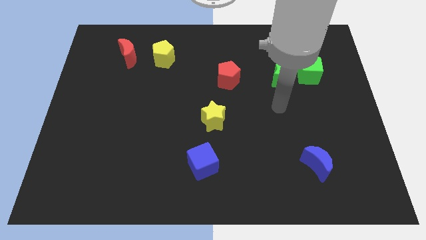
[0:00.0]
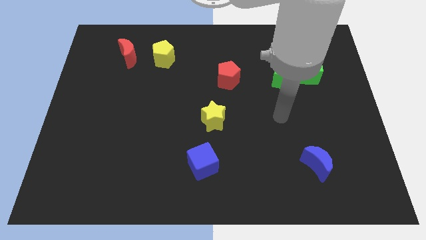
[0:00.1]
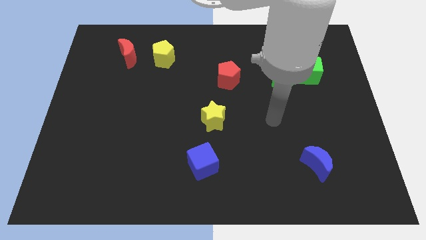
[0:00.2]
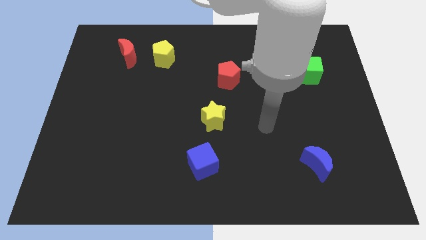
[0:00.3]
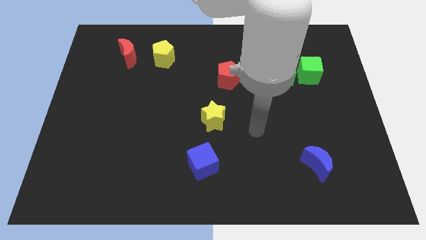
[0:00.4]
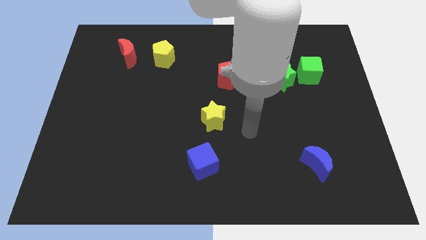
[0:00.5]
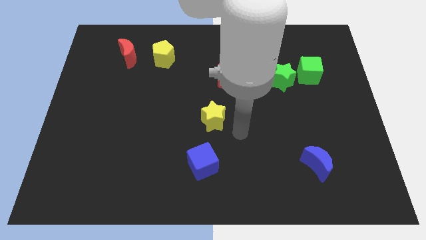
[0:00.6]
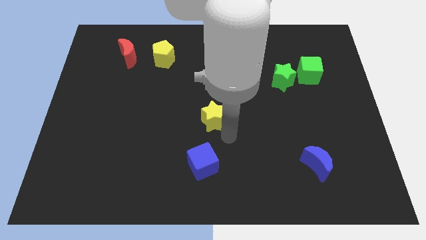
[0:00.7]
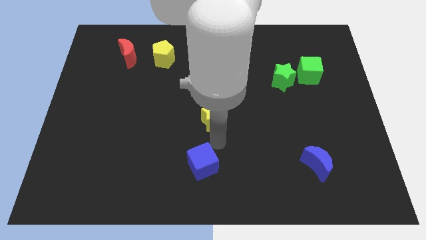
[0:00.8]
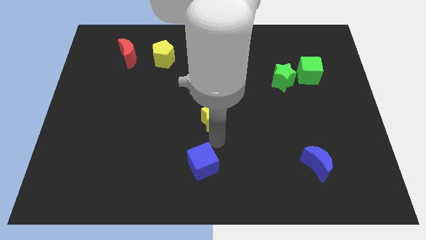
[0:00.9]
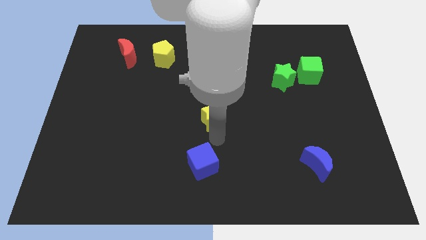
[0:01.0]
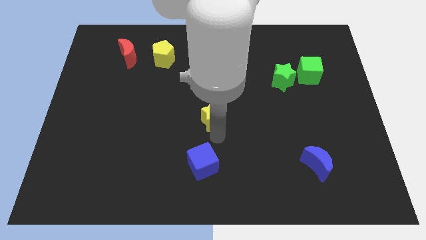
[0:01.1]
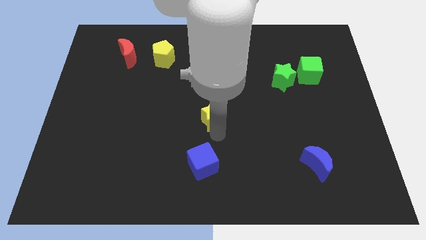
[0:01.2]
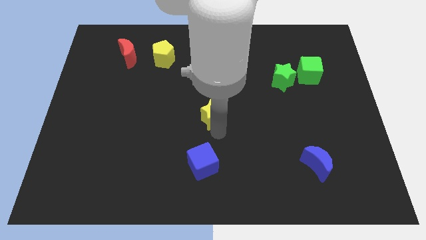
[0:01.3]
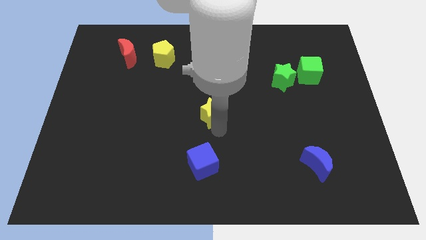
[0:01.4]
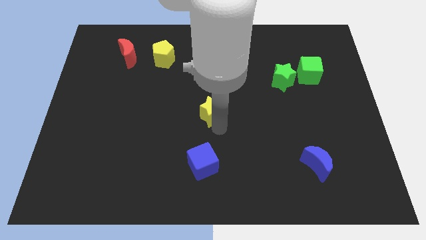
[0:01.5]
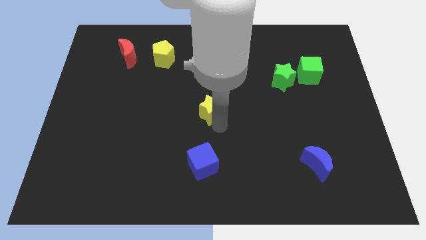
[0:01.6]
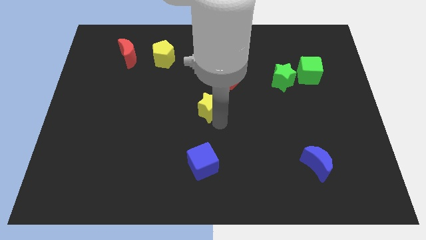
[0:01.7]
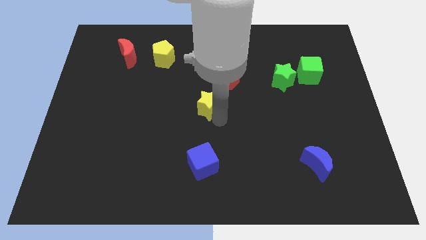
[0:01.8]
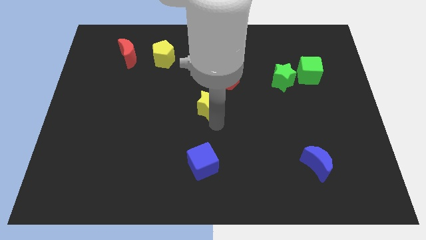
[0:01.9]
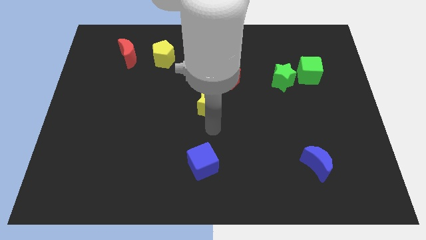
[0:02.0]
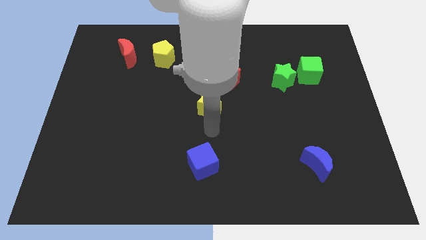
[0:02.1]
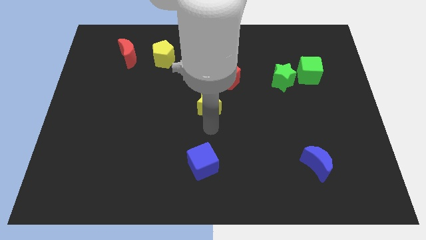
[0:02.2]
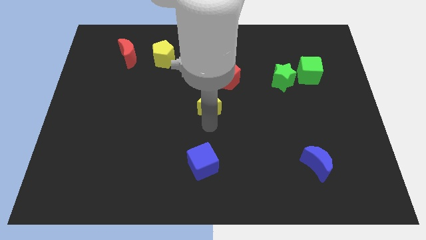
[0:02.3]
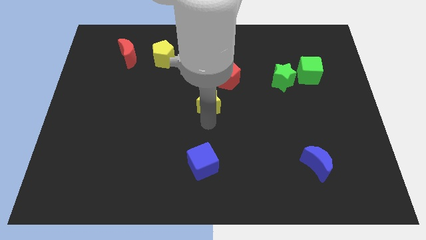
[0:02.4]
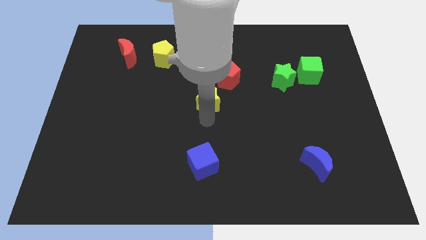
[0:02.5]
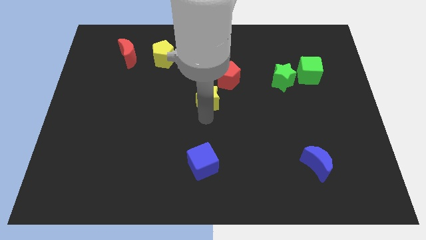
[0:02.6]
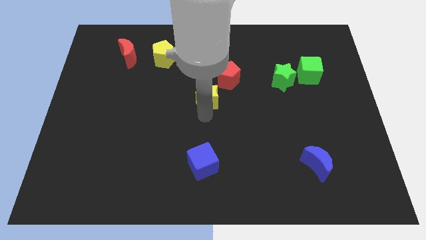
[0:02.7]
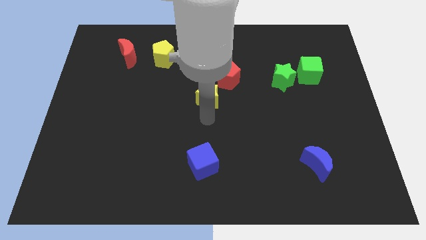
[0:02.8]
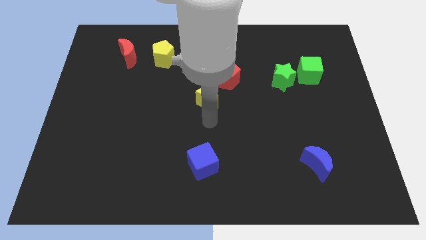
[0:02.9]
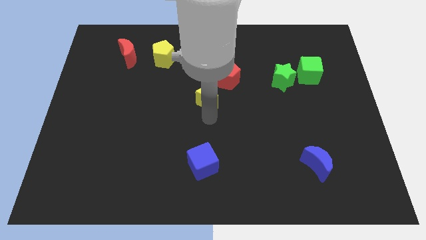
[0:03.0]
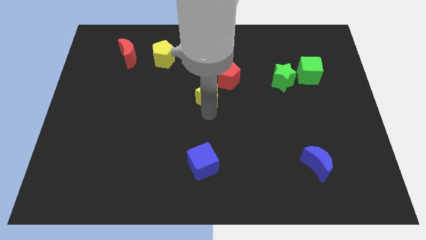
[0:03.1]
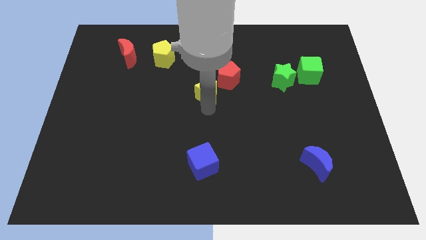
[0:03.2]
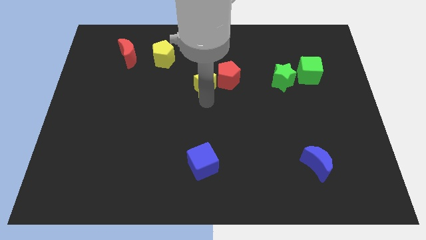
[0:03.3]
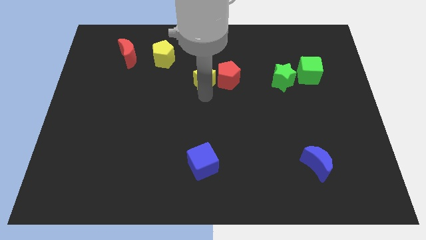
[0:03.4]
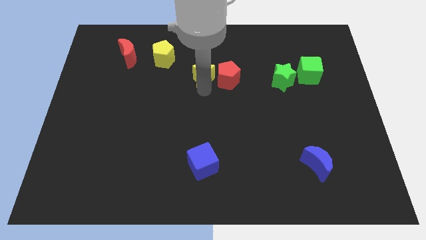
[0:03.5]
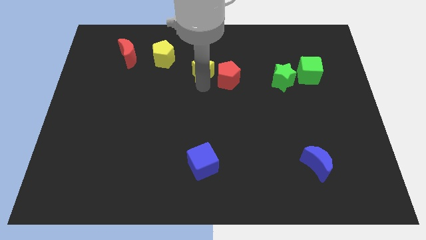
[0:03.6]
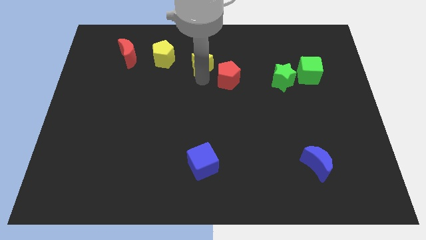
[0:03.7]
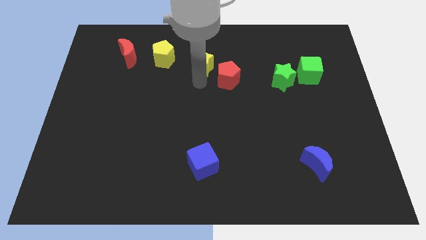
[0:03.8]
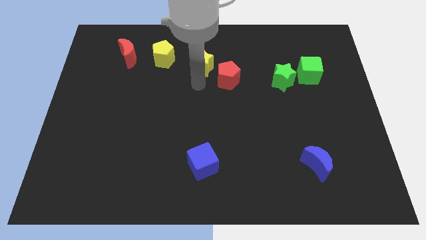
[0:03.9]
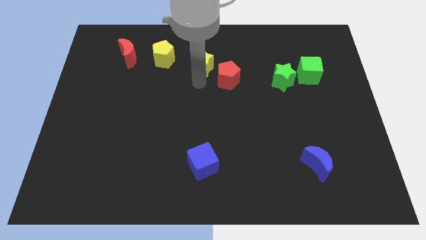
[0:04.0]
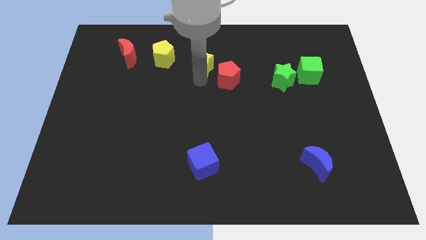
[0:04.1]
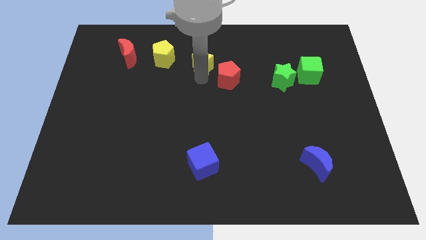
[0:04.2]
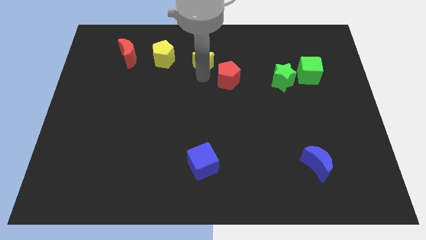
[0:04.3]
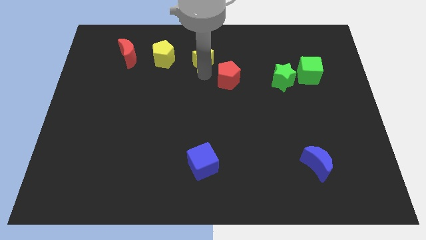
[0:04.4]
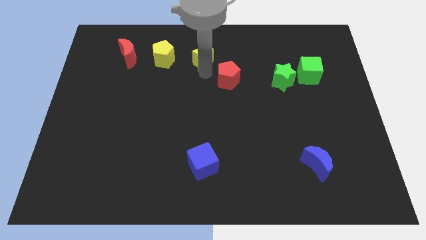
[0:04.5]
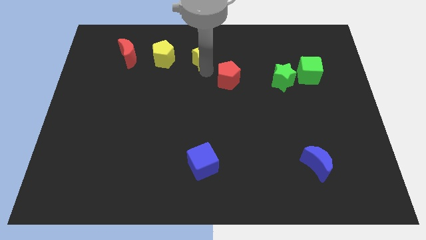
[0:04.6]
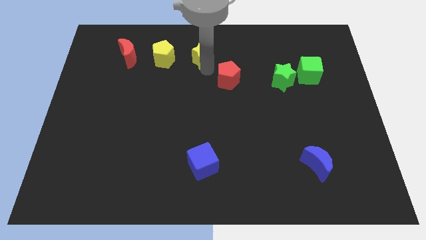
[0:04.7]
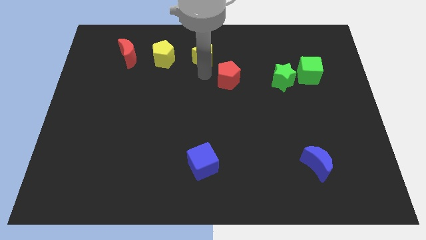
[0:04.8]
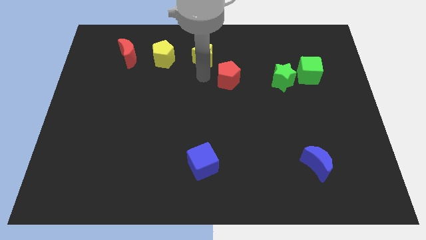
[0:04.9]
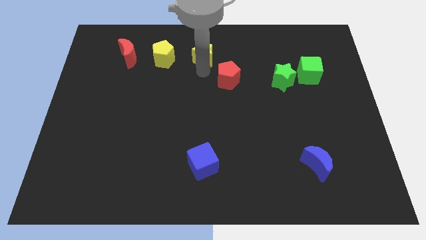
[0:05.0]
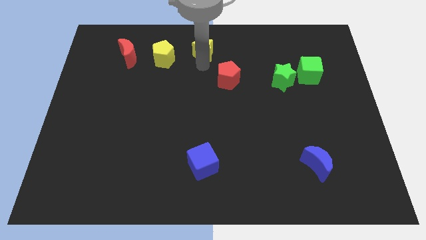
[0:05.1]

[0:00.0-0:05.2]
move the yellow star to the towards your base

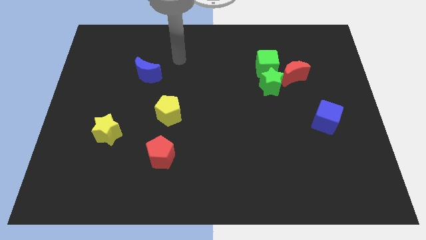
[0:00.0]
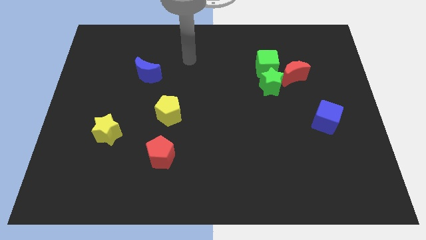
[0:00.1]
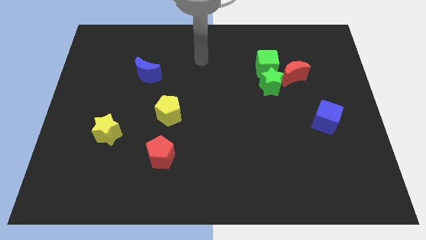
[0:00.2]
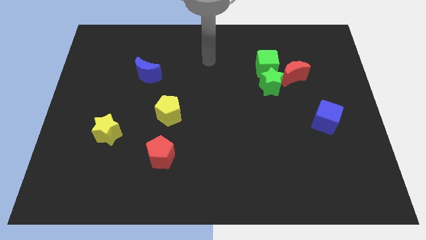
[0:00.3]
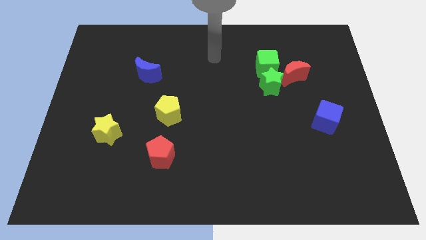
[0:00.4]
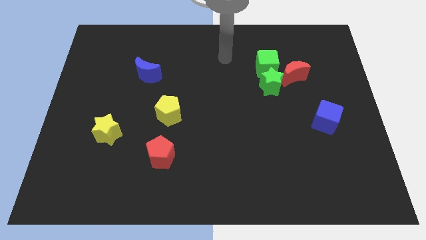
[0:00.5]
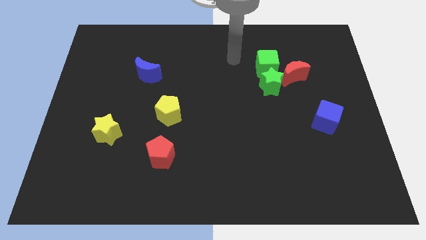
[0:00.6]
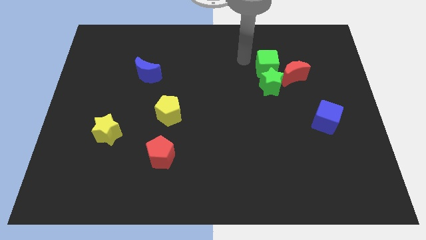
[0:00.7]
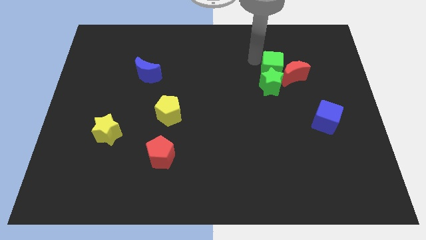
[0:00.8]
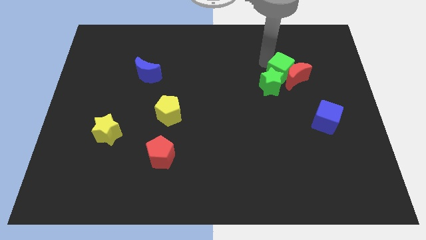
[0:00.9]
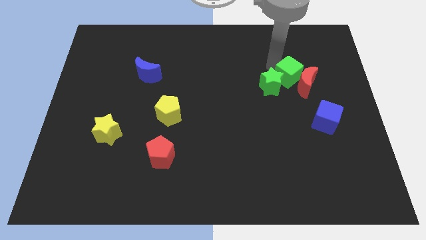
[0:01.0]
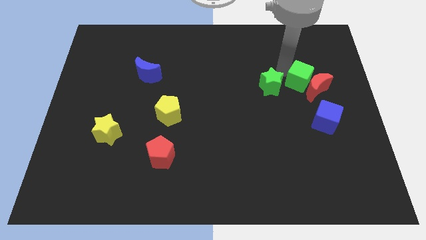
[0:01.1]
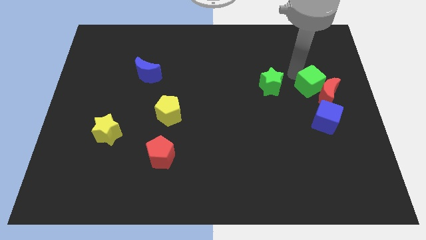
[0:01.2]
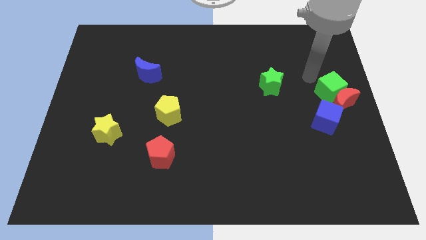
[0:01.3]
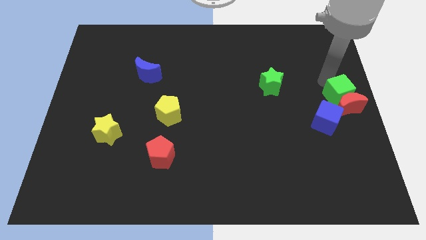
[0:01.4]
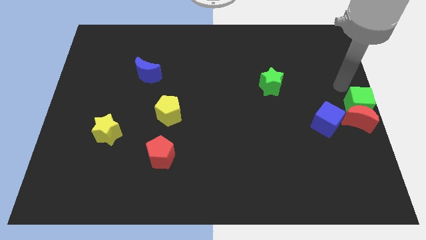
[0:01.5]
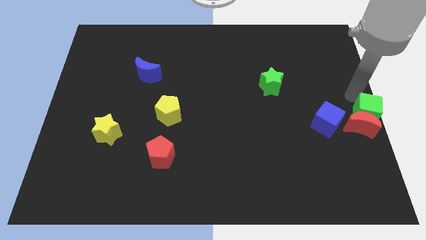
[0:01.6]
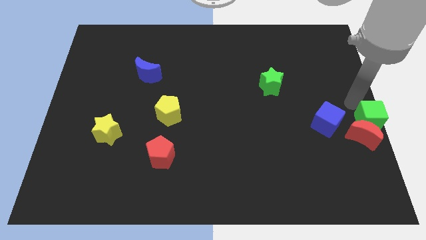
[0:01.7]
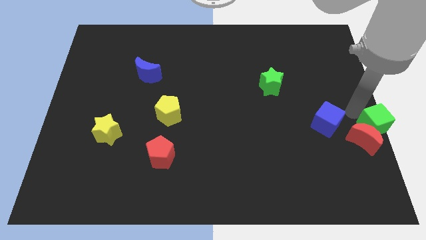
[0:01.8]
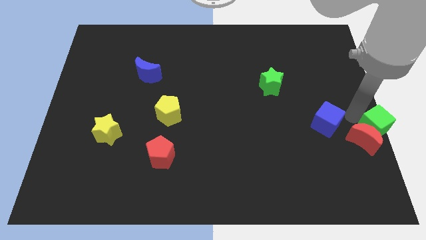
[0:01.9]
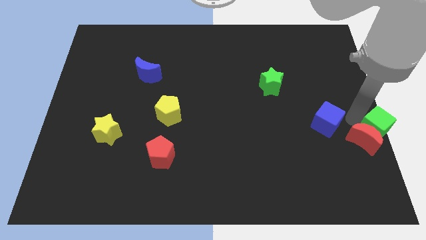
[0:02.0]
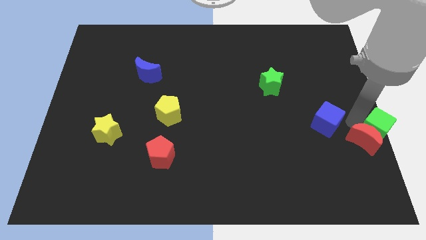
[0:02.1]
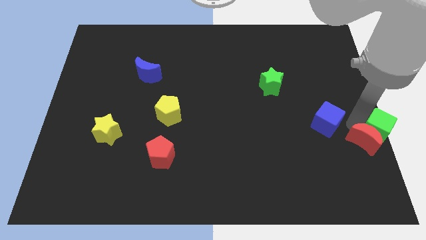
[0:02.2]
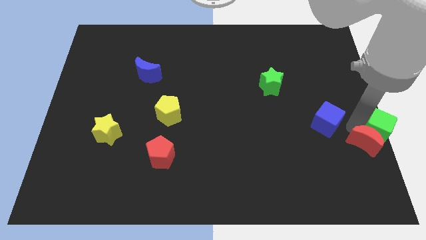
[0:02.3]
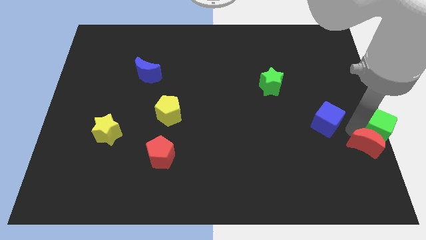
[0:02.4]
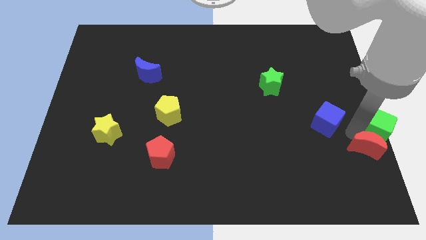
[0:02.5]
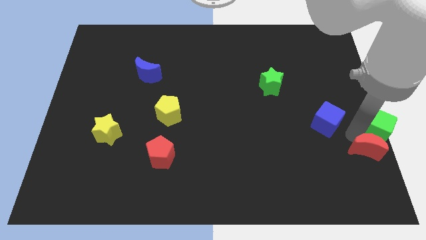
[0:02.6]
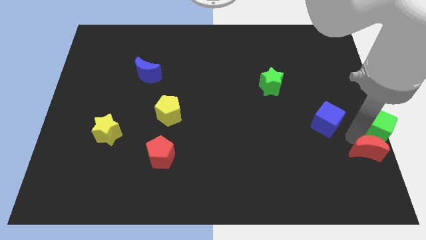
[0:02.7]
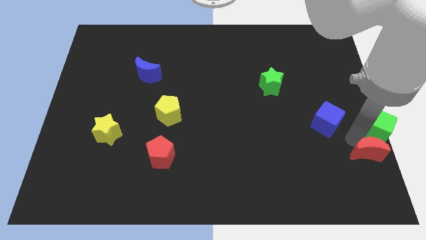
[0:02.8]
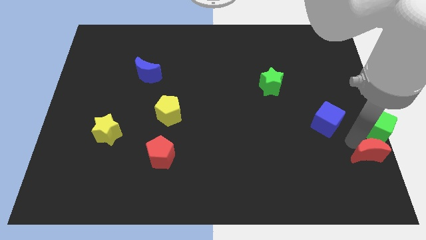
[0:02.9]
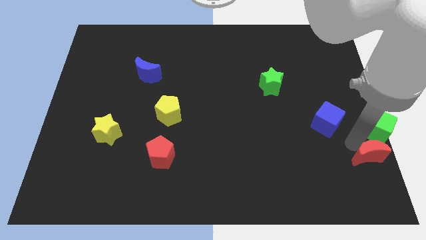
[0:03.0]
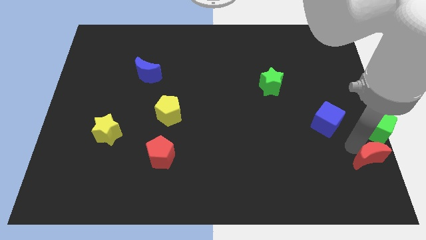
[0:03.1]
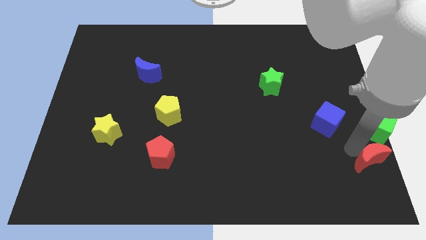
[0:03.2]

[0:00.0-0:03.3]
put the red moon to the bottom right
